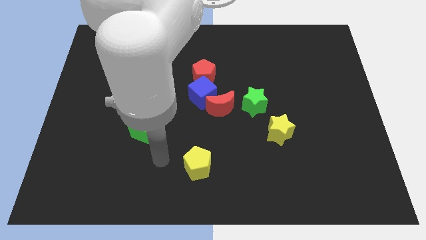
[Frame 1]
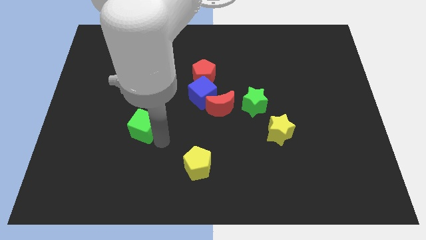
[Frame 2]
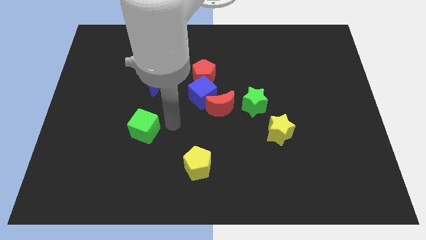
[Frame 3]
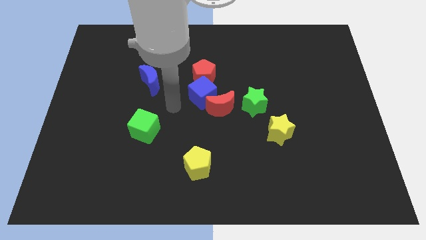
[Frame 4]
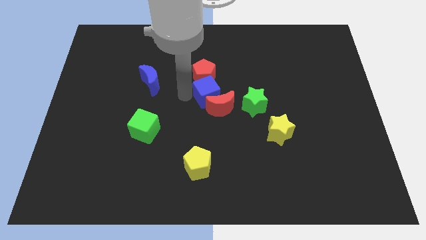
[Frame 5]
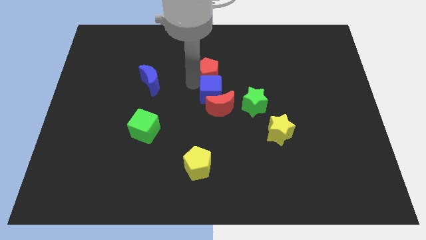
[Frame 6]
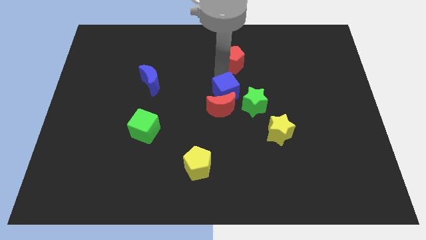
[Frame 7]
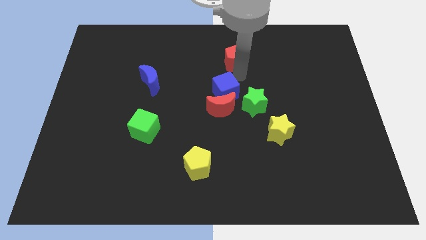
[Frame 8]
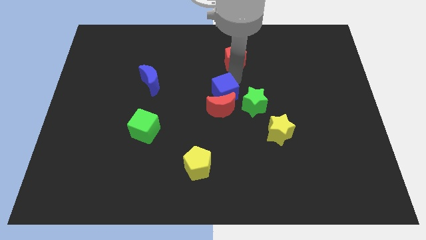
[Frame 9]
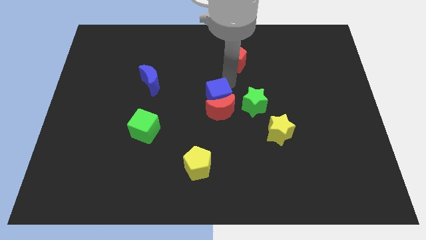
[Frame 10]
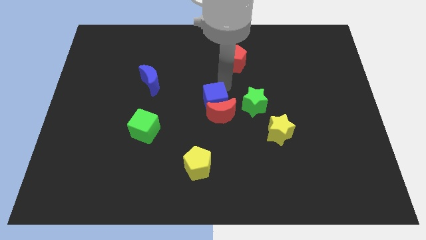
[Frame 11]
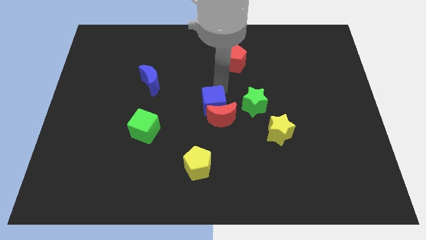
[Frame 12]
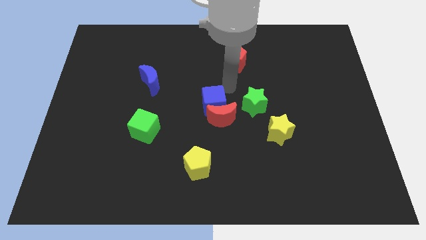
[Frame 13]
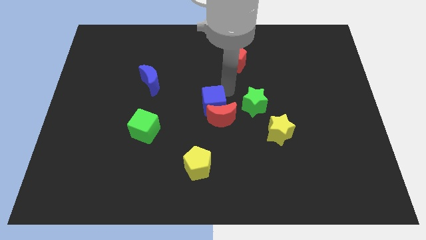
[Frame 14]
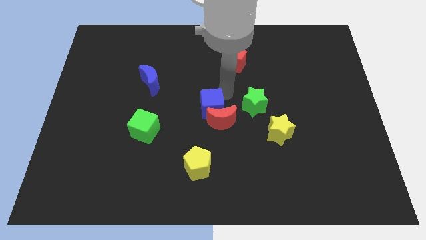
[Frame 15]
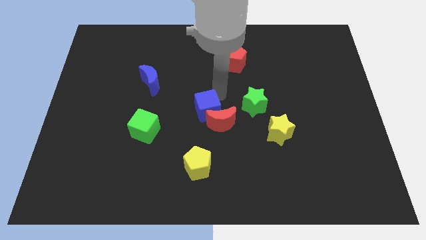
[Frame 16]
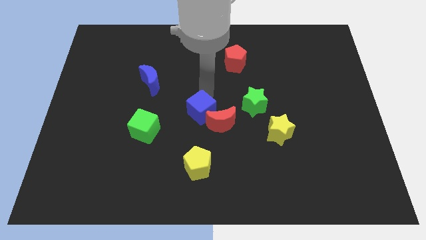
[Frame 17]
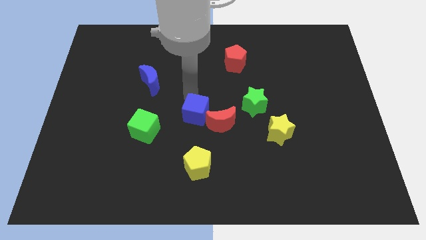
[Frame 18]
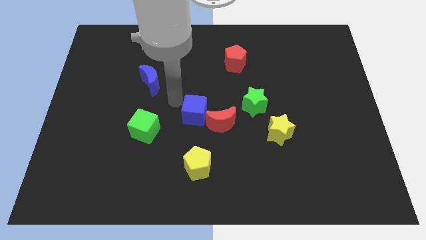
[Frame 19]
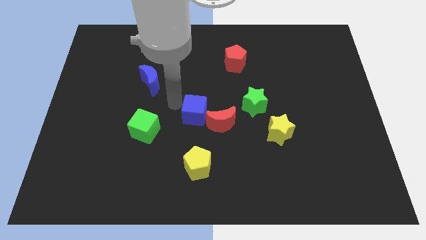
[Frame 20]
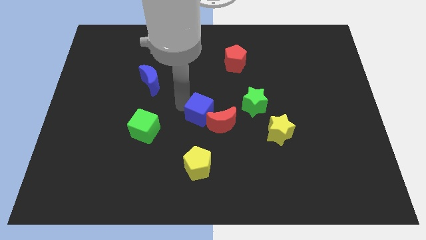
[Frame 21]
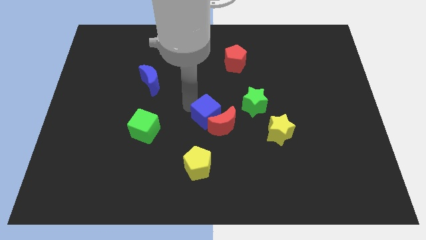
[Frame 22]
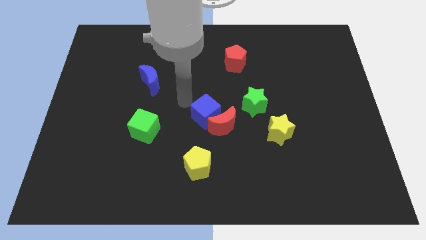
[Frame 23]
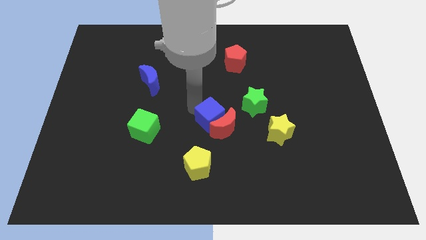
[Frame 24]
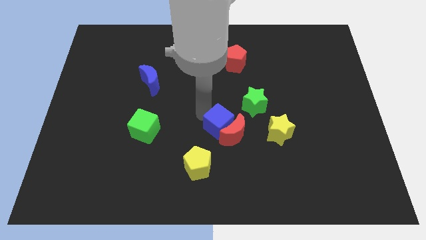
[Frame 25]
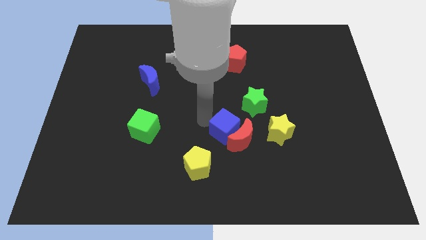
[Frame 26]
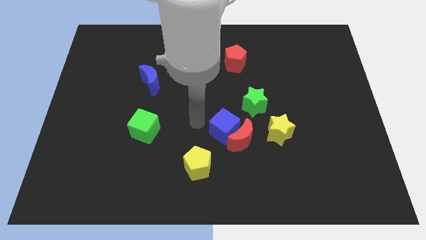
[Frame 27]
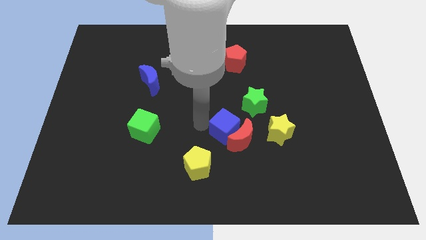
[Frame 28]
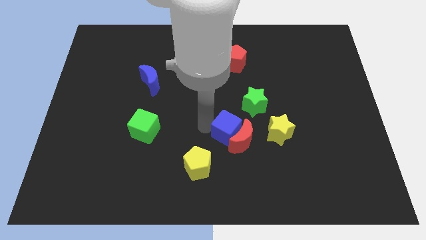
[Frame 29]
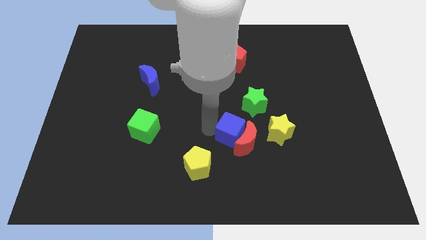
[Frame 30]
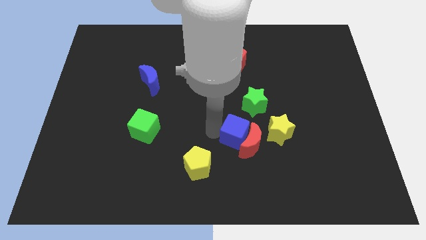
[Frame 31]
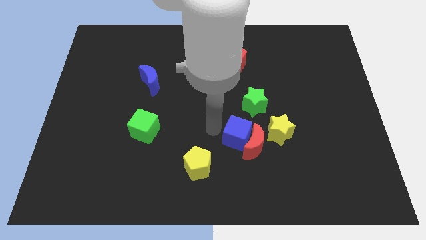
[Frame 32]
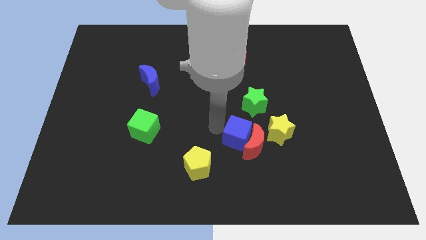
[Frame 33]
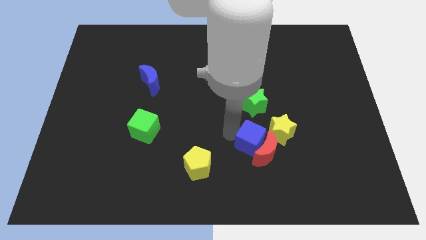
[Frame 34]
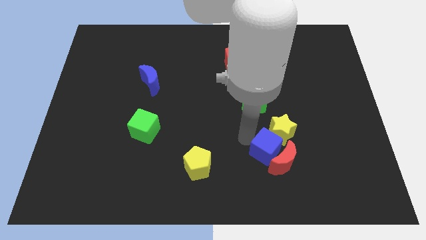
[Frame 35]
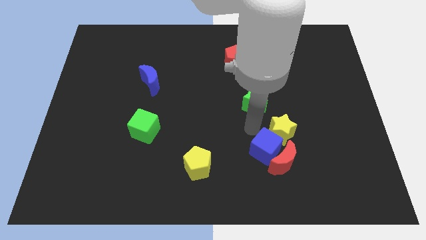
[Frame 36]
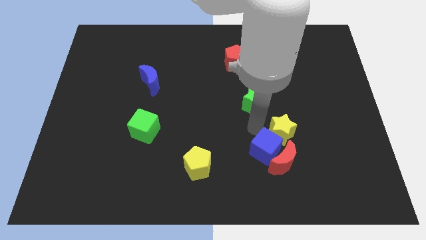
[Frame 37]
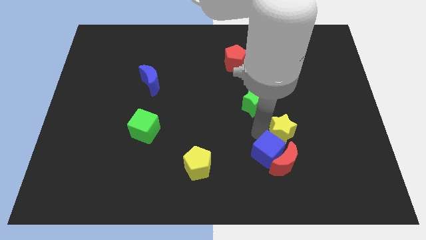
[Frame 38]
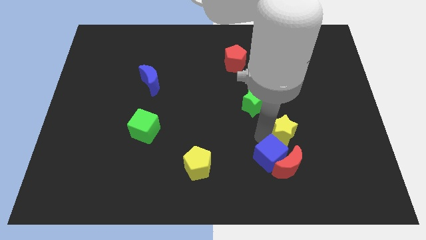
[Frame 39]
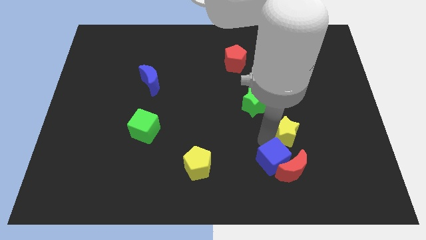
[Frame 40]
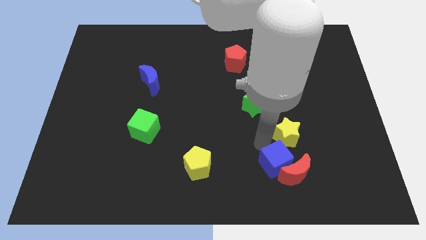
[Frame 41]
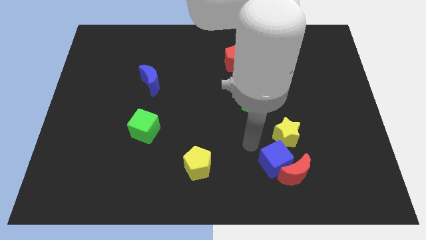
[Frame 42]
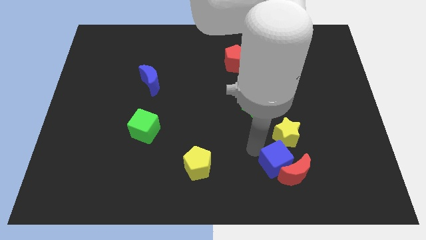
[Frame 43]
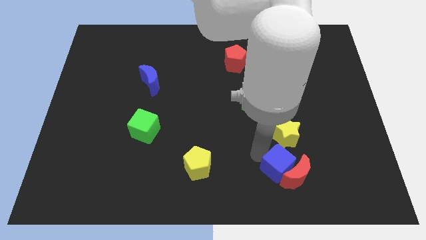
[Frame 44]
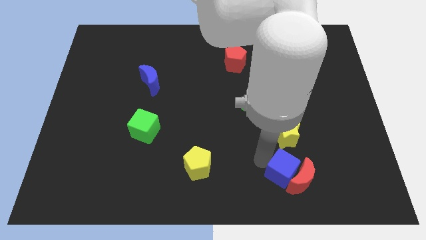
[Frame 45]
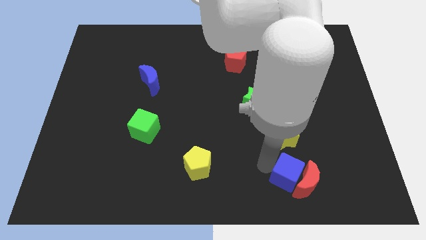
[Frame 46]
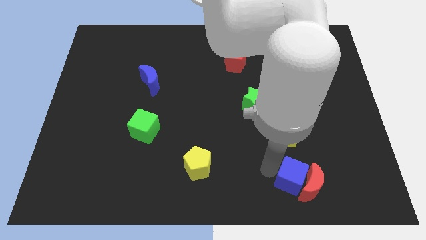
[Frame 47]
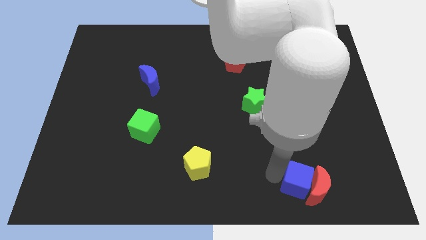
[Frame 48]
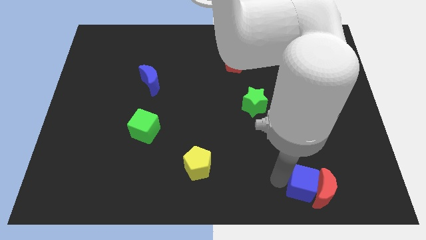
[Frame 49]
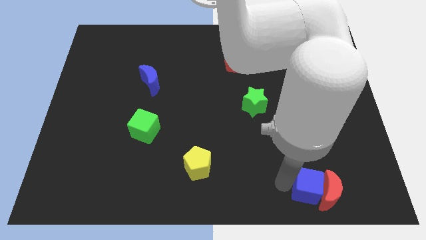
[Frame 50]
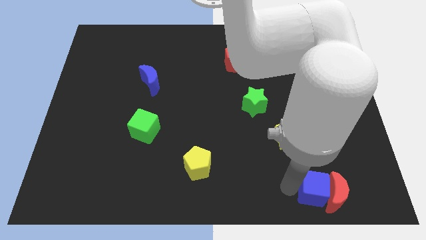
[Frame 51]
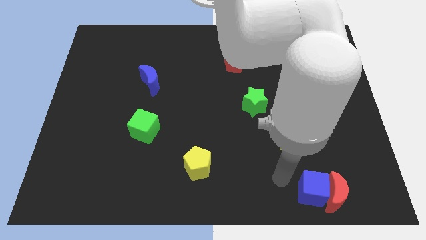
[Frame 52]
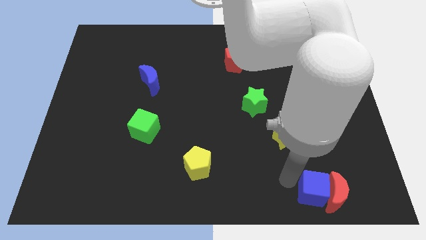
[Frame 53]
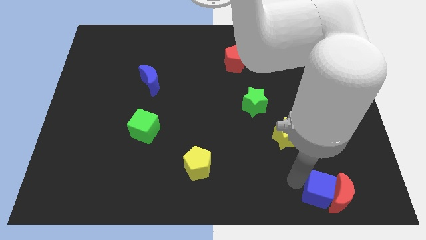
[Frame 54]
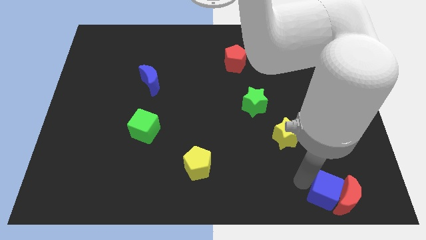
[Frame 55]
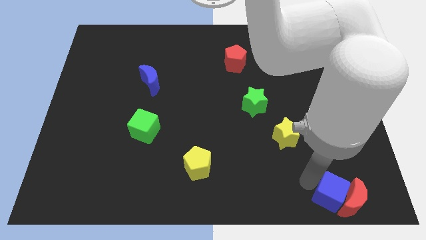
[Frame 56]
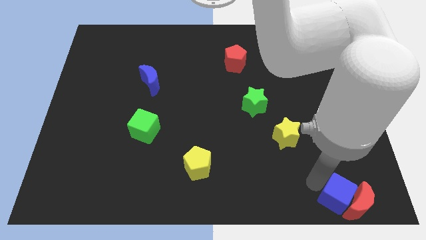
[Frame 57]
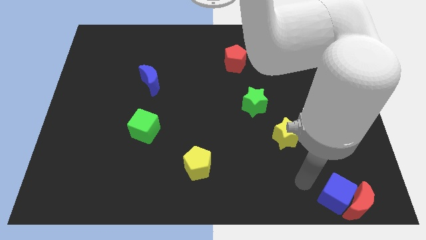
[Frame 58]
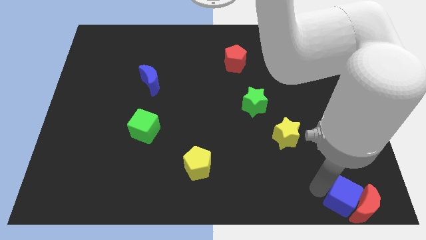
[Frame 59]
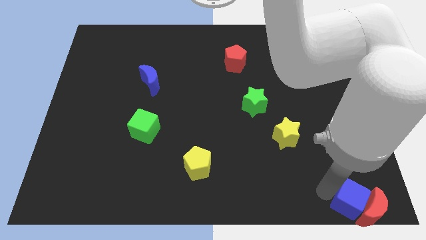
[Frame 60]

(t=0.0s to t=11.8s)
move the blue cube to the lower right corner

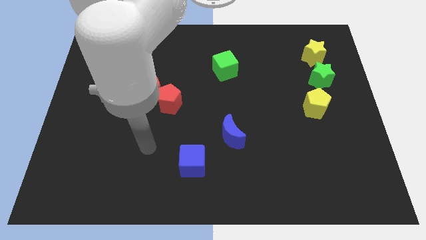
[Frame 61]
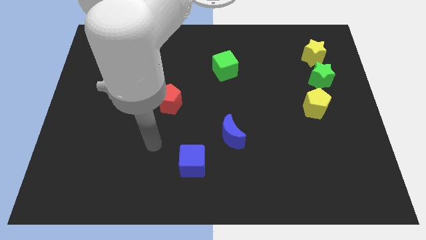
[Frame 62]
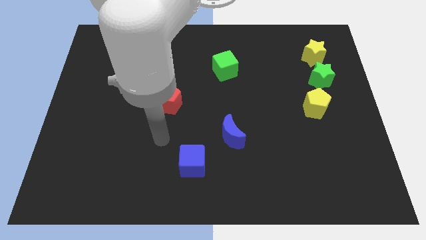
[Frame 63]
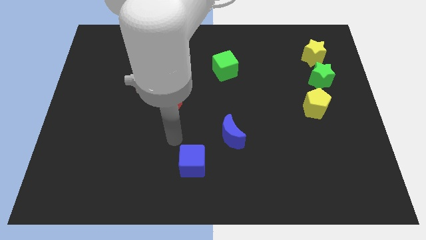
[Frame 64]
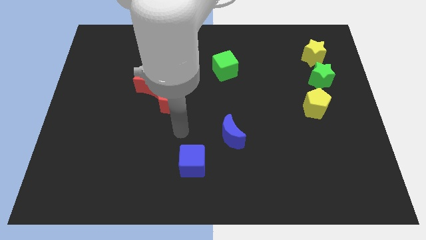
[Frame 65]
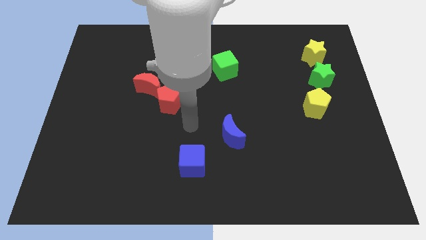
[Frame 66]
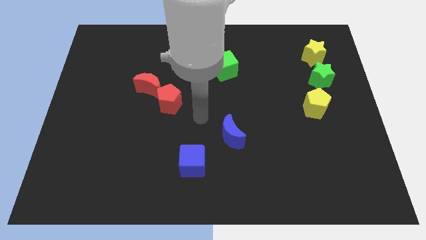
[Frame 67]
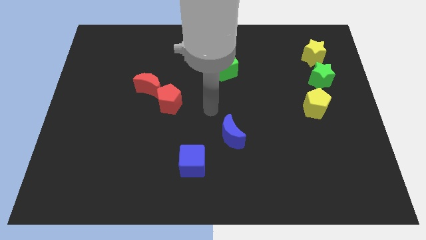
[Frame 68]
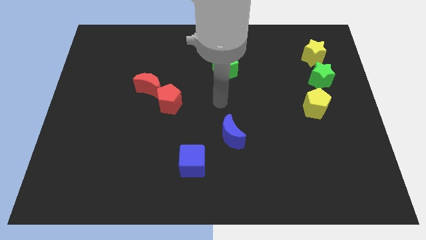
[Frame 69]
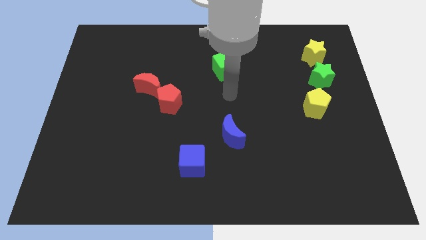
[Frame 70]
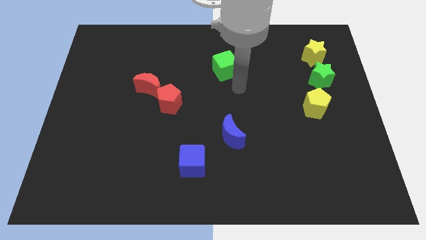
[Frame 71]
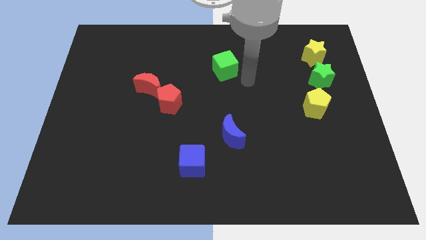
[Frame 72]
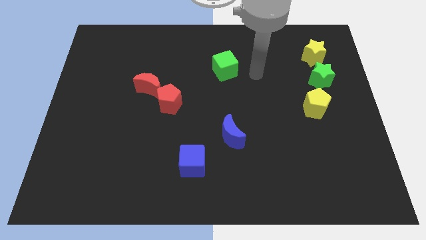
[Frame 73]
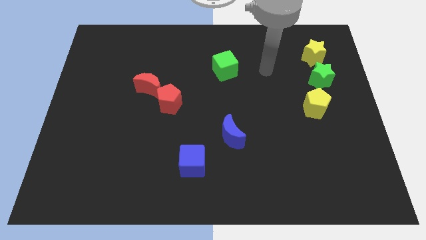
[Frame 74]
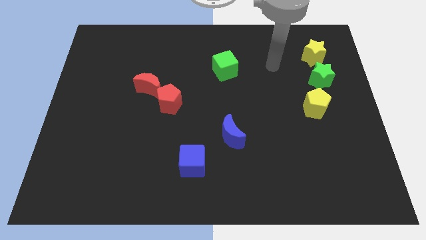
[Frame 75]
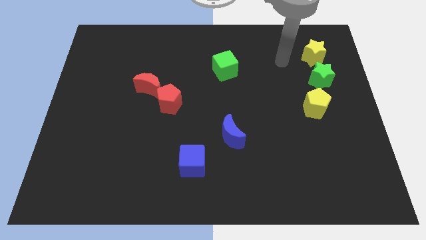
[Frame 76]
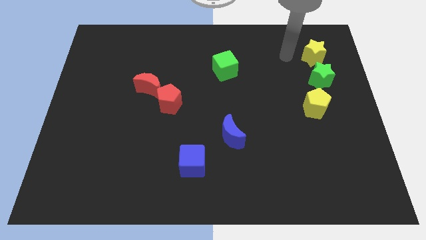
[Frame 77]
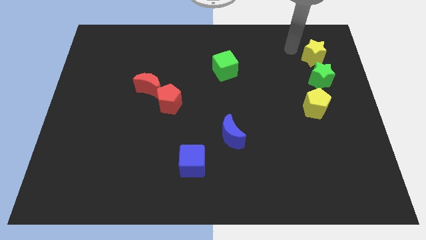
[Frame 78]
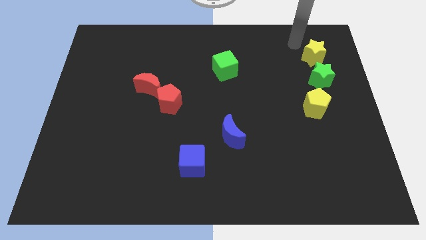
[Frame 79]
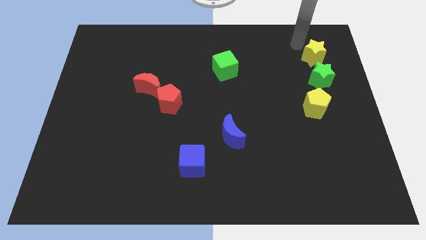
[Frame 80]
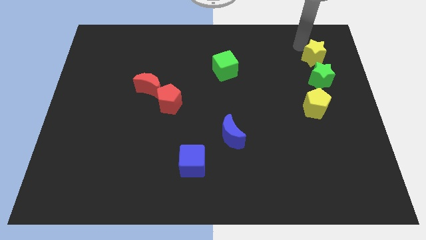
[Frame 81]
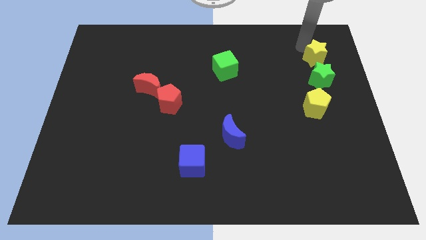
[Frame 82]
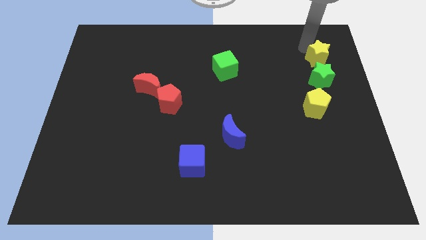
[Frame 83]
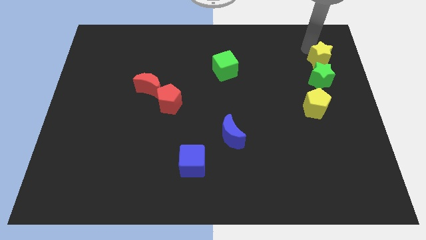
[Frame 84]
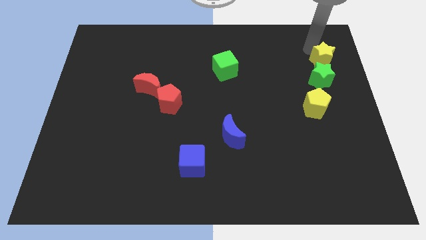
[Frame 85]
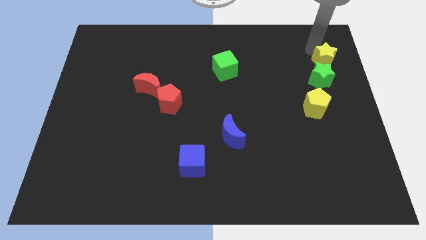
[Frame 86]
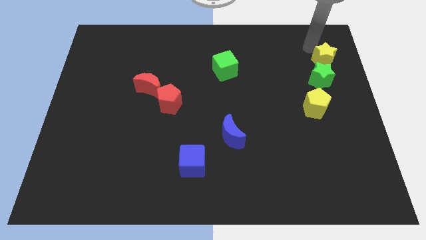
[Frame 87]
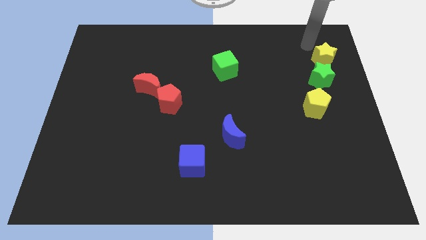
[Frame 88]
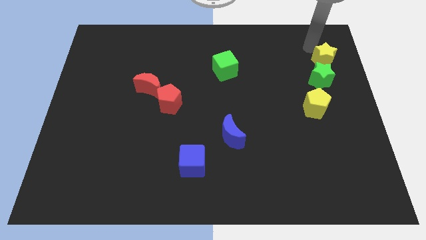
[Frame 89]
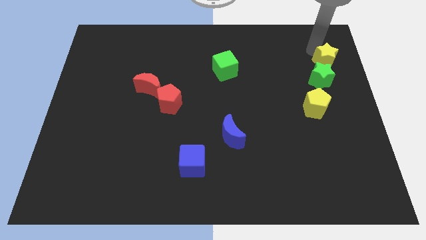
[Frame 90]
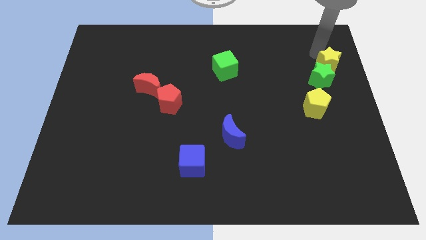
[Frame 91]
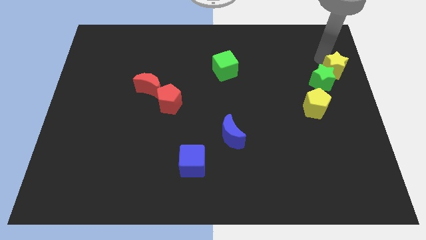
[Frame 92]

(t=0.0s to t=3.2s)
push the yellow star to the center right
